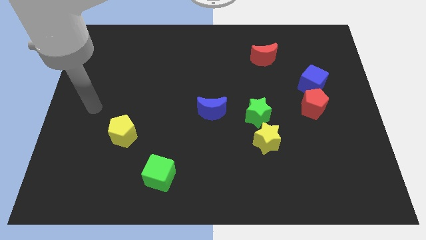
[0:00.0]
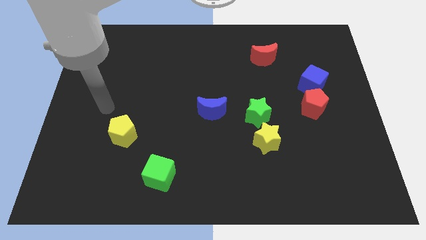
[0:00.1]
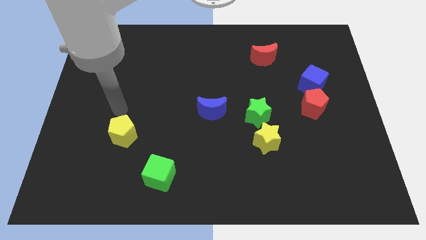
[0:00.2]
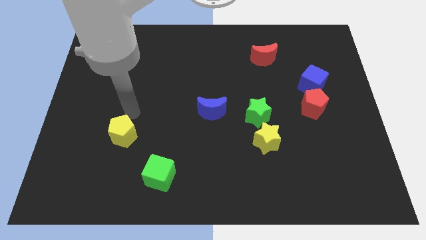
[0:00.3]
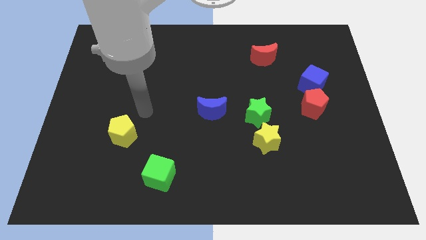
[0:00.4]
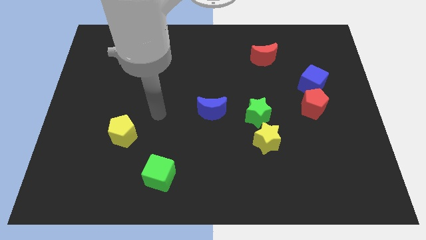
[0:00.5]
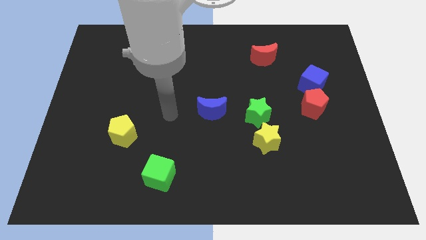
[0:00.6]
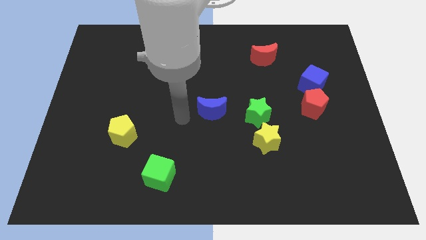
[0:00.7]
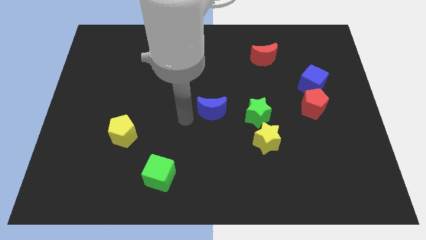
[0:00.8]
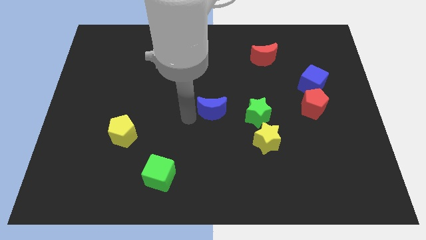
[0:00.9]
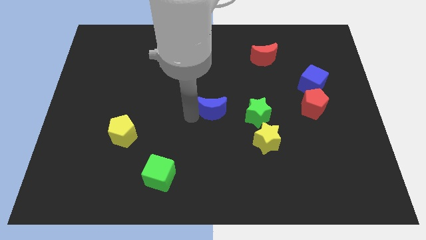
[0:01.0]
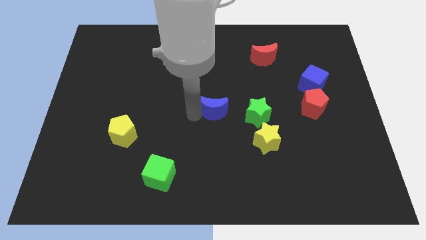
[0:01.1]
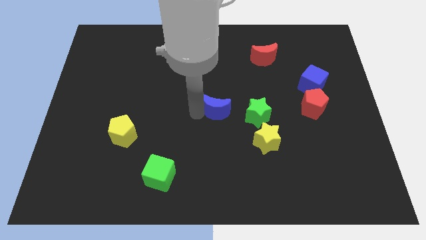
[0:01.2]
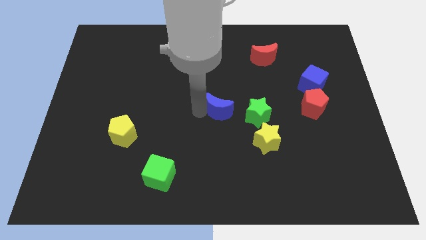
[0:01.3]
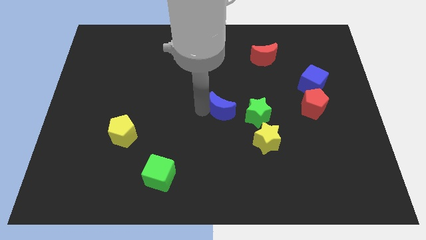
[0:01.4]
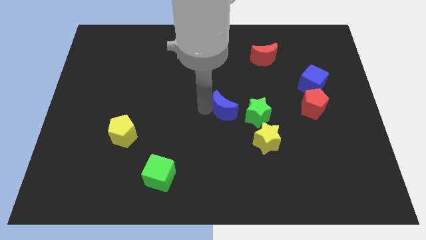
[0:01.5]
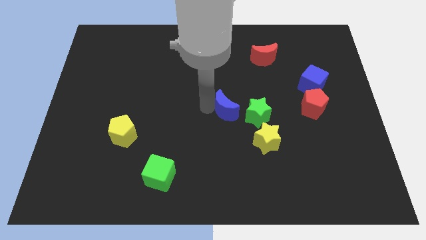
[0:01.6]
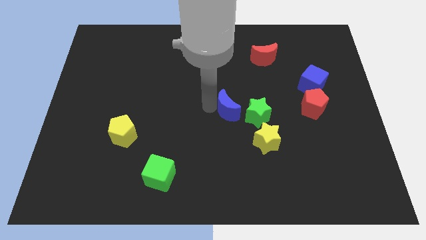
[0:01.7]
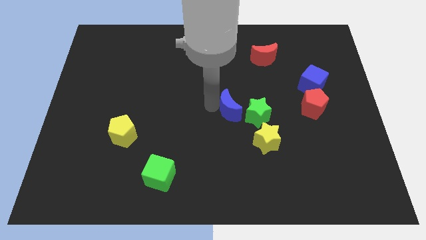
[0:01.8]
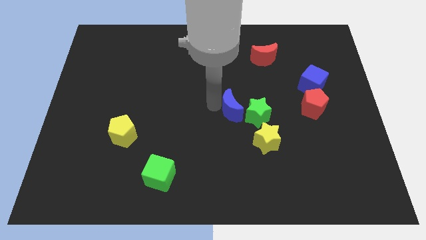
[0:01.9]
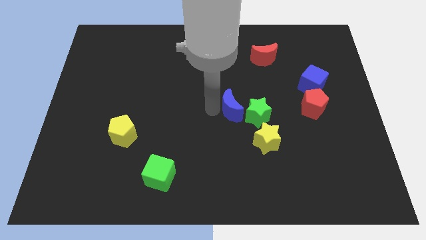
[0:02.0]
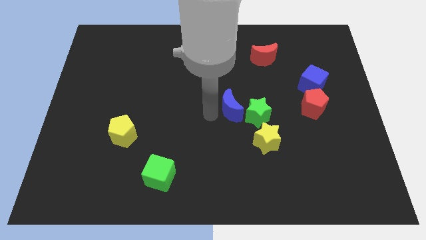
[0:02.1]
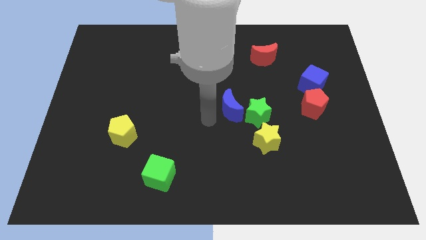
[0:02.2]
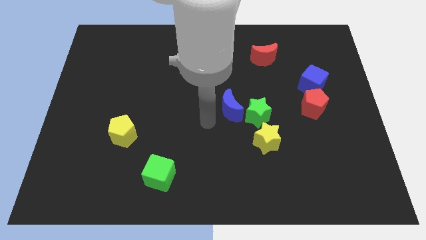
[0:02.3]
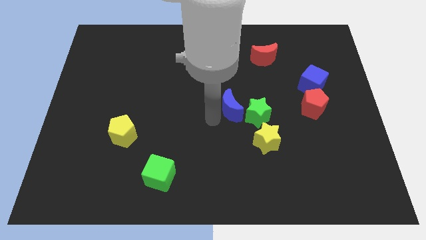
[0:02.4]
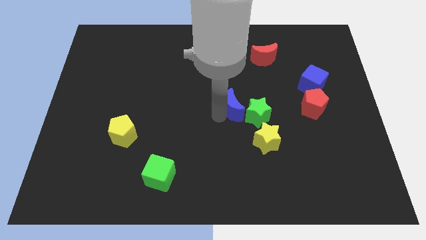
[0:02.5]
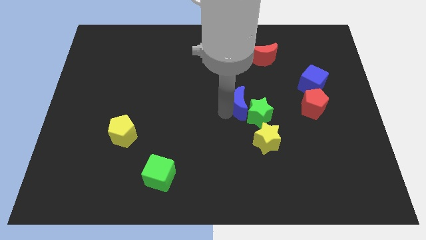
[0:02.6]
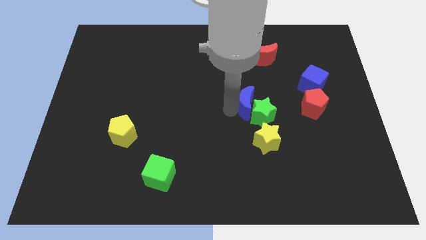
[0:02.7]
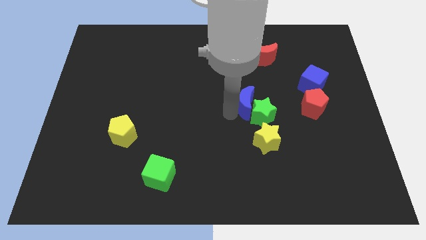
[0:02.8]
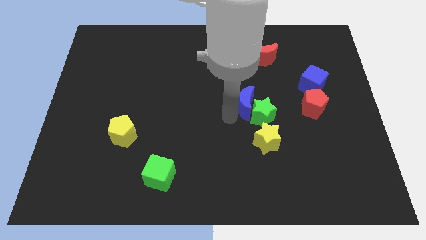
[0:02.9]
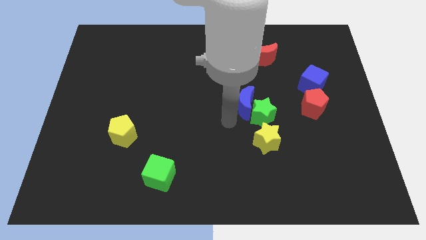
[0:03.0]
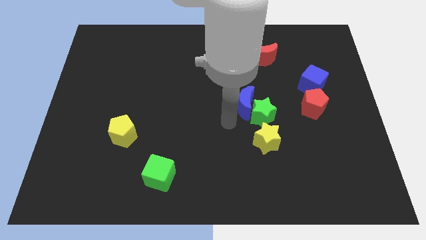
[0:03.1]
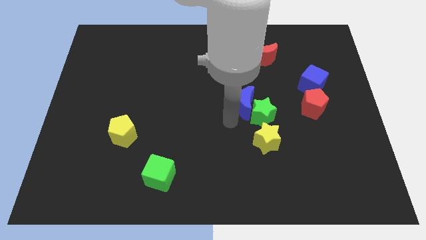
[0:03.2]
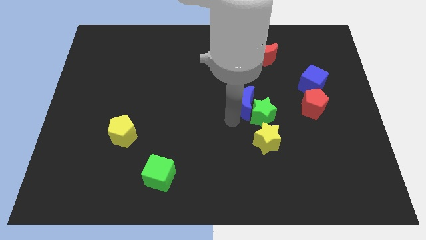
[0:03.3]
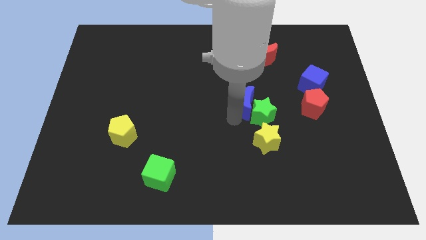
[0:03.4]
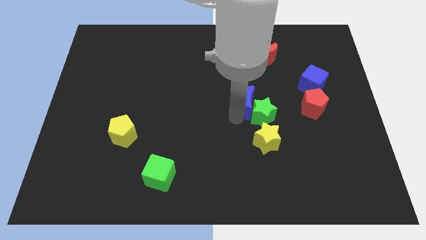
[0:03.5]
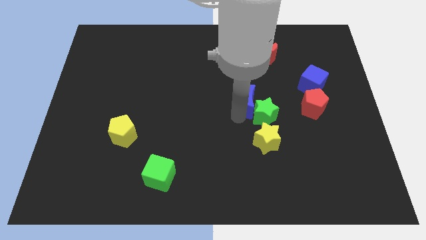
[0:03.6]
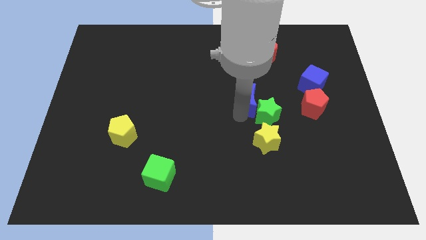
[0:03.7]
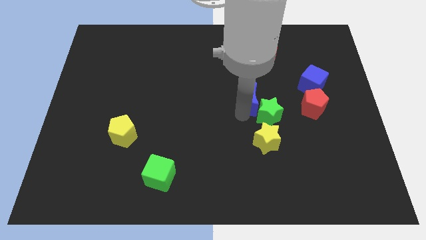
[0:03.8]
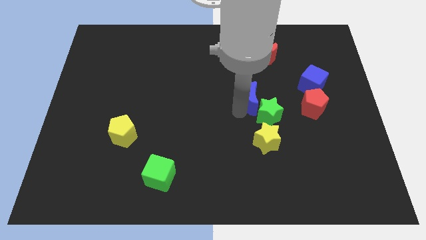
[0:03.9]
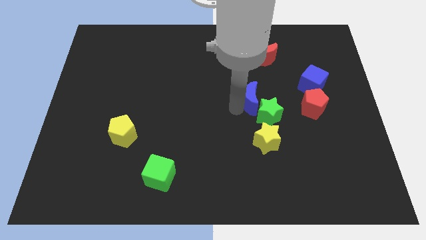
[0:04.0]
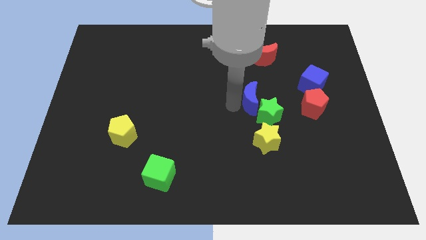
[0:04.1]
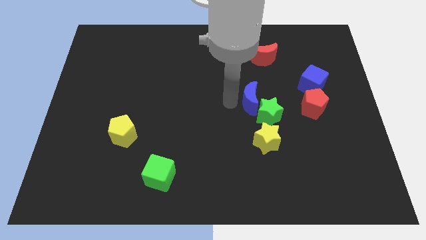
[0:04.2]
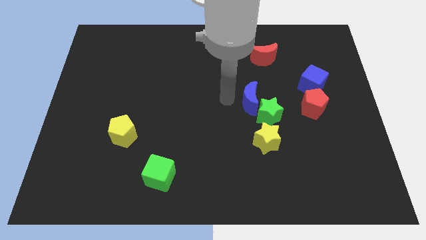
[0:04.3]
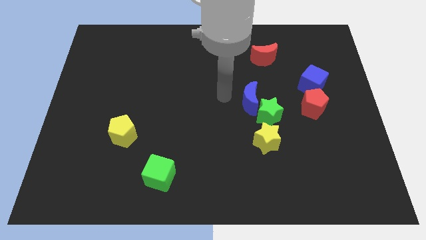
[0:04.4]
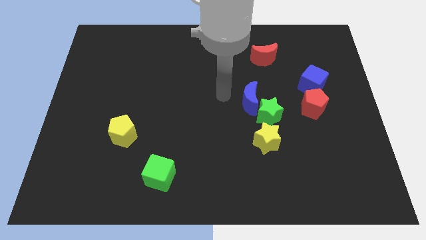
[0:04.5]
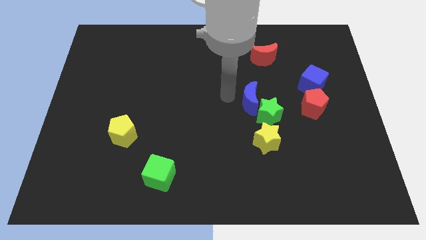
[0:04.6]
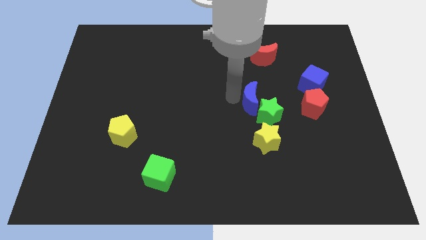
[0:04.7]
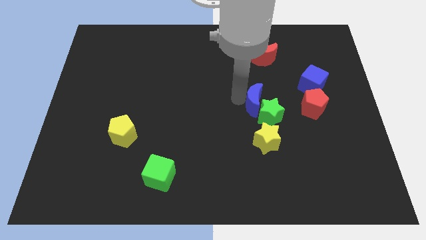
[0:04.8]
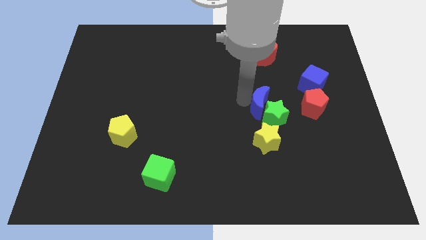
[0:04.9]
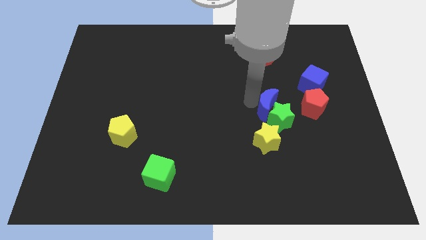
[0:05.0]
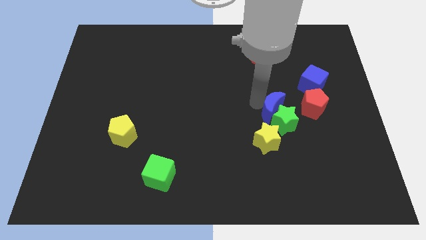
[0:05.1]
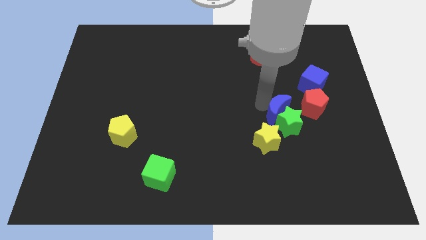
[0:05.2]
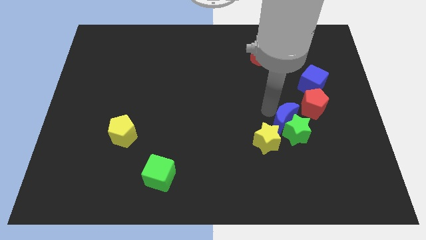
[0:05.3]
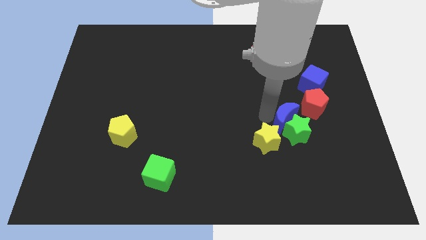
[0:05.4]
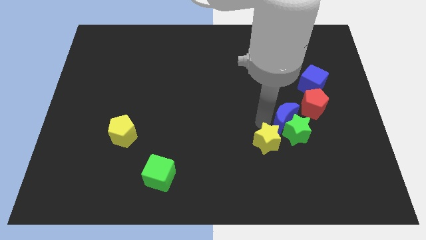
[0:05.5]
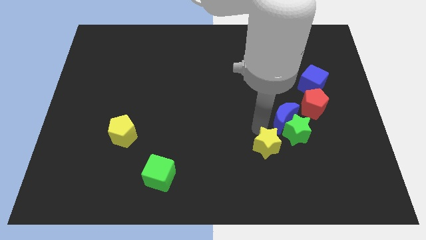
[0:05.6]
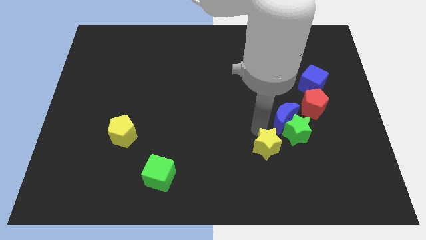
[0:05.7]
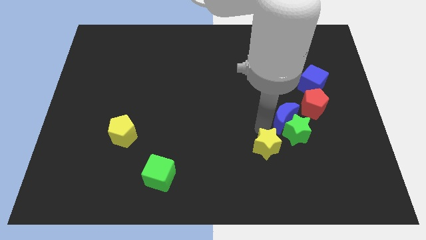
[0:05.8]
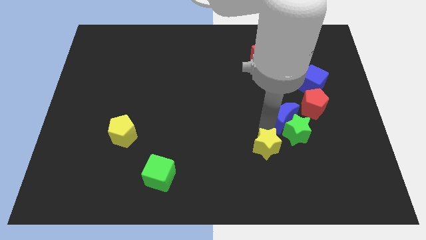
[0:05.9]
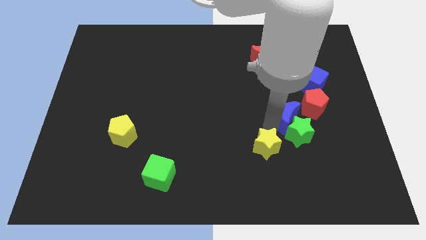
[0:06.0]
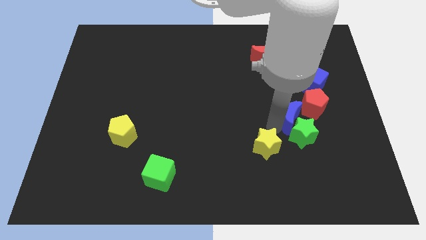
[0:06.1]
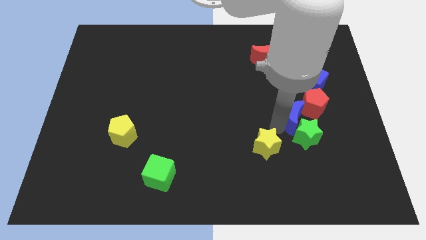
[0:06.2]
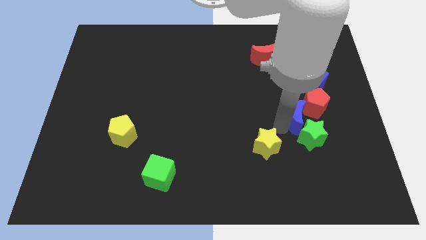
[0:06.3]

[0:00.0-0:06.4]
push the blue moon next to the red pentagon

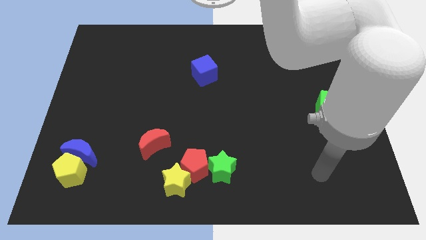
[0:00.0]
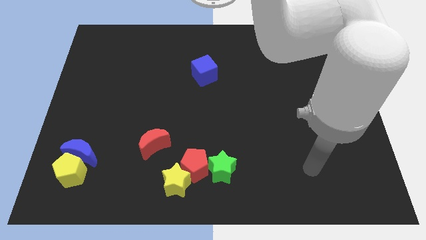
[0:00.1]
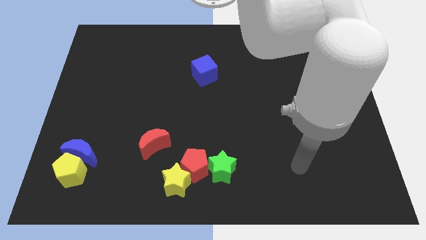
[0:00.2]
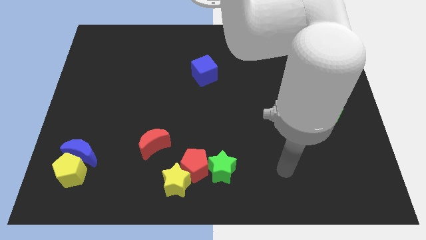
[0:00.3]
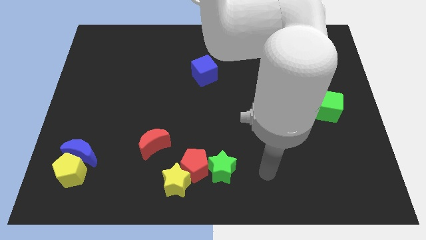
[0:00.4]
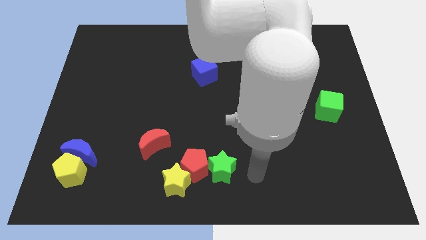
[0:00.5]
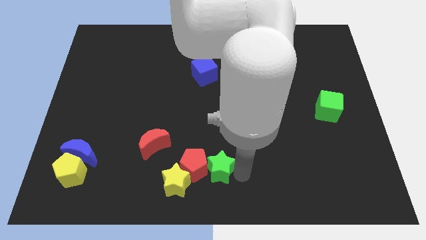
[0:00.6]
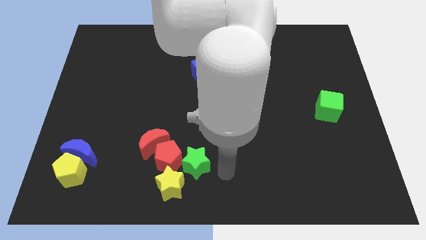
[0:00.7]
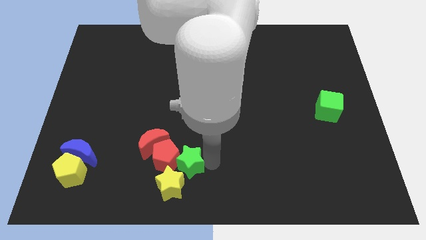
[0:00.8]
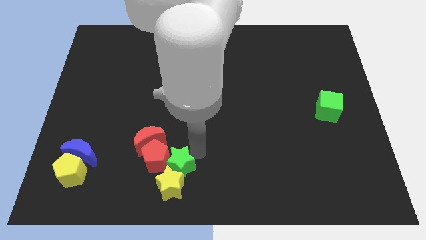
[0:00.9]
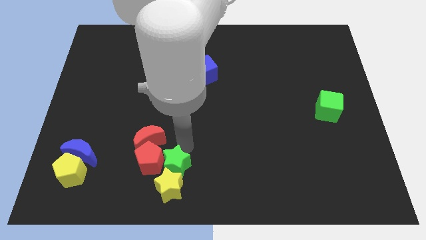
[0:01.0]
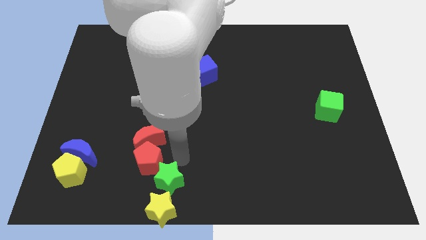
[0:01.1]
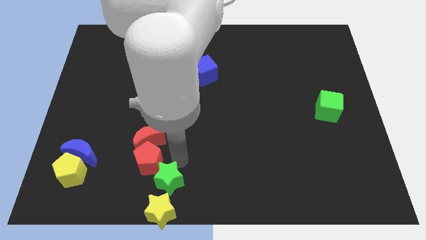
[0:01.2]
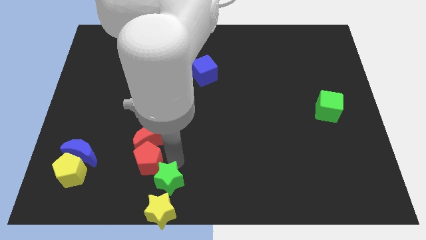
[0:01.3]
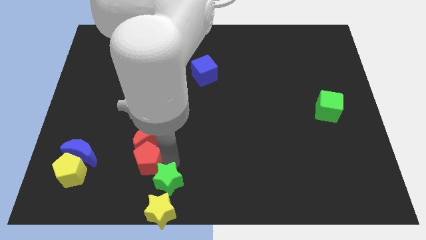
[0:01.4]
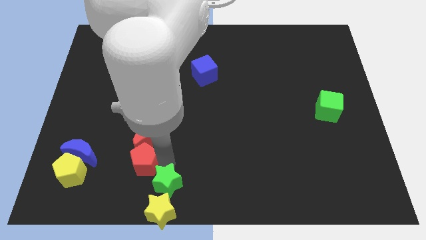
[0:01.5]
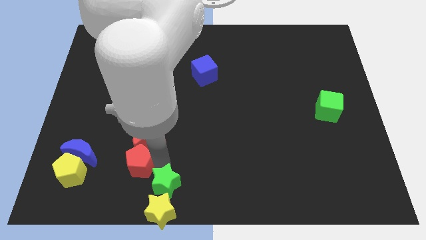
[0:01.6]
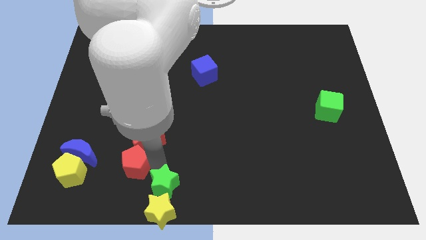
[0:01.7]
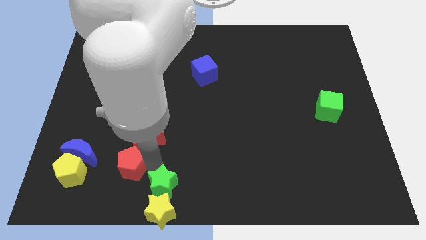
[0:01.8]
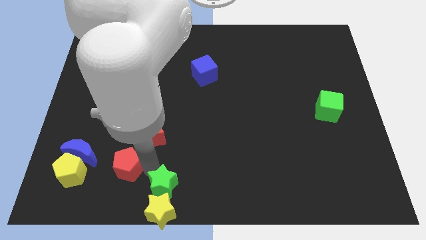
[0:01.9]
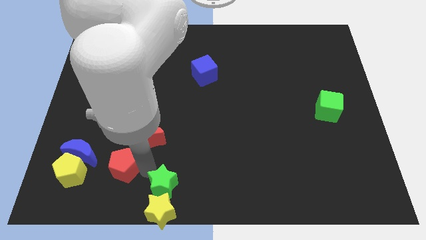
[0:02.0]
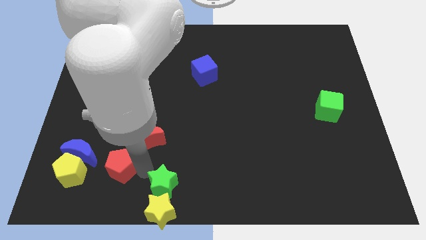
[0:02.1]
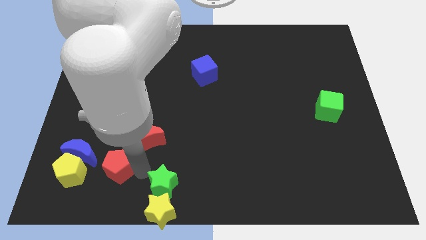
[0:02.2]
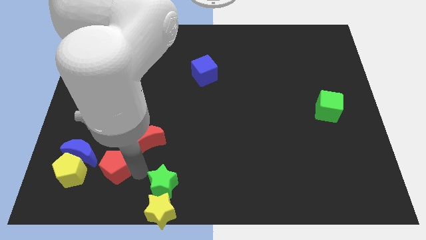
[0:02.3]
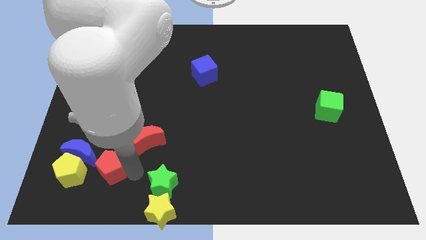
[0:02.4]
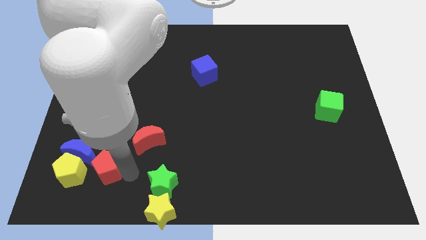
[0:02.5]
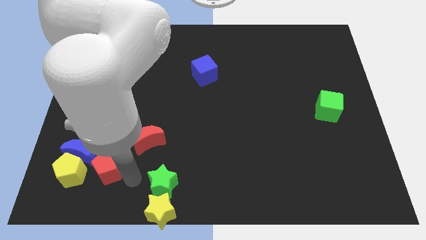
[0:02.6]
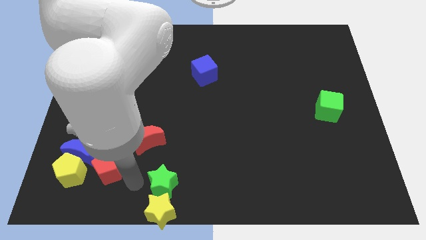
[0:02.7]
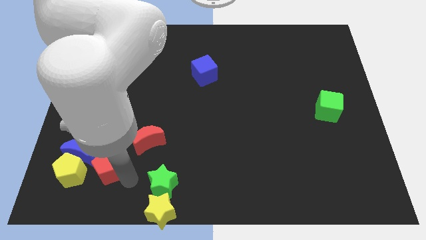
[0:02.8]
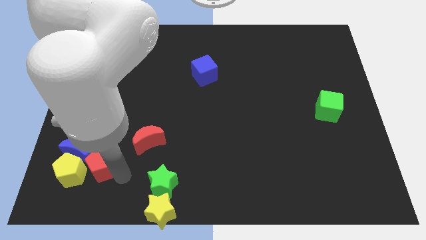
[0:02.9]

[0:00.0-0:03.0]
put the red pentagon close to the blue moon
